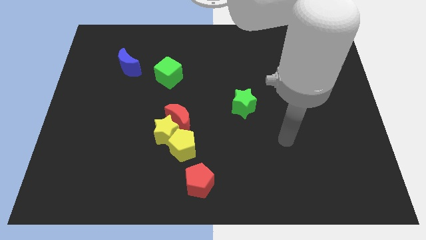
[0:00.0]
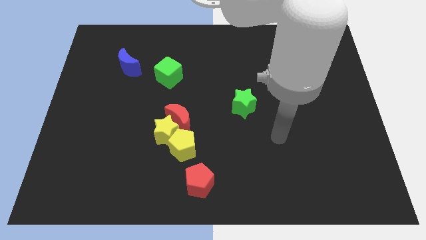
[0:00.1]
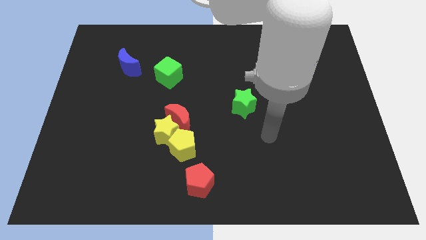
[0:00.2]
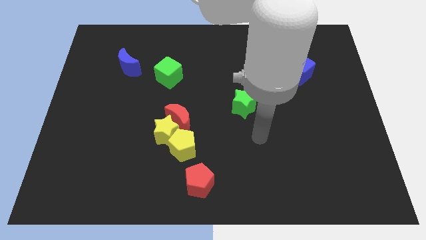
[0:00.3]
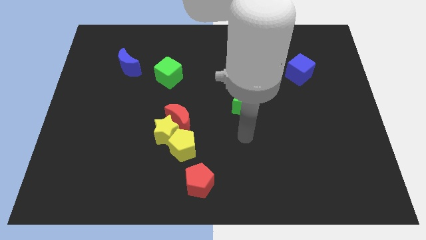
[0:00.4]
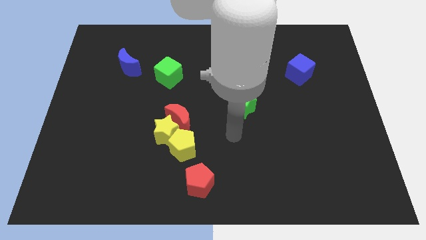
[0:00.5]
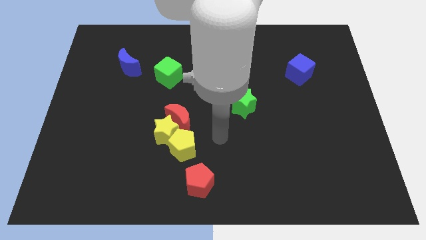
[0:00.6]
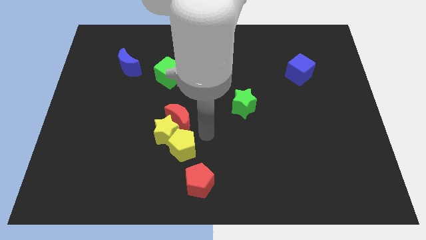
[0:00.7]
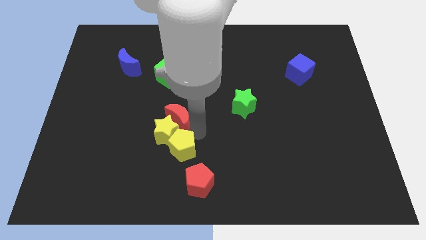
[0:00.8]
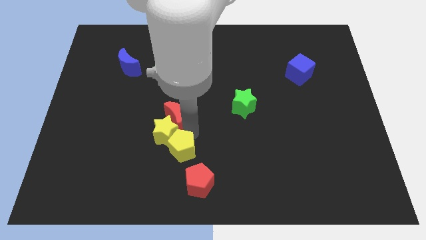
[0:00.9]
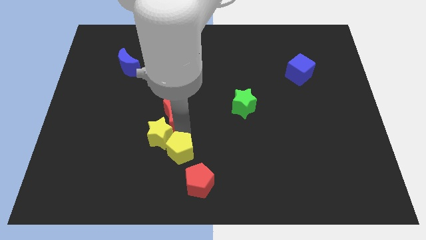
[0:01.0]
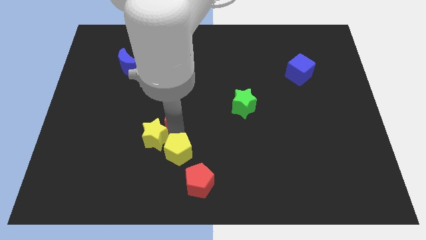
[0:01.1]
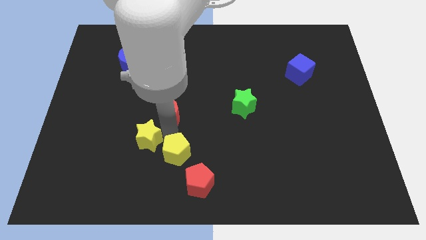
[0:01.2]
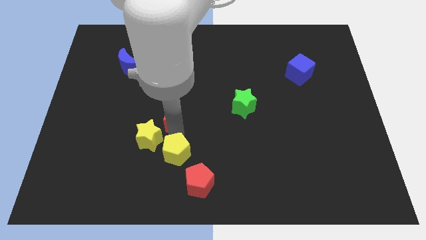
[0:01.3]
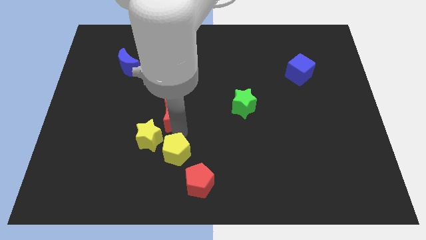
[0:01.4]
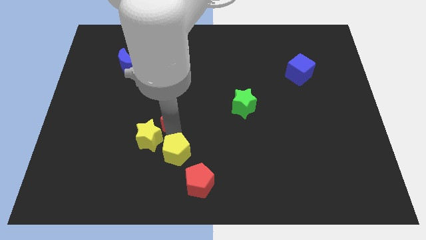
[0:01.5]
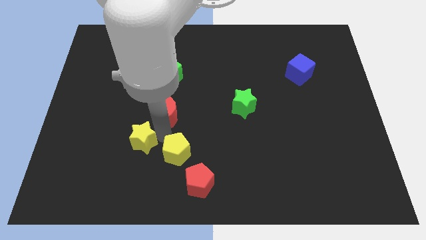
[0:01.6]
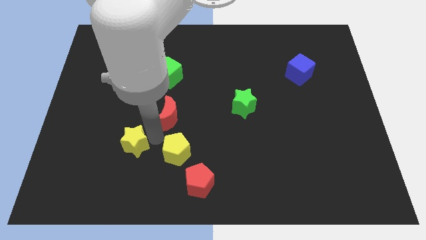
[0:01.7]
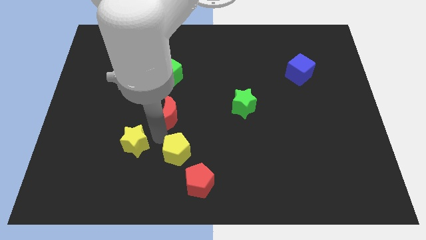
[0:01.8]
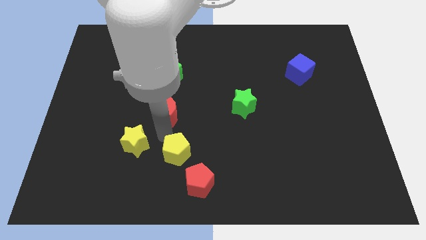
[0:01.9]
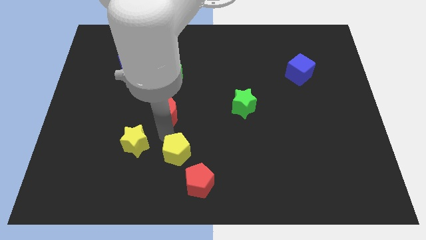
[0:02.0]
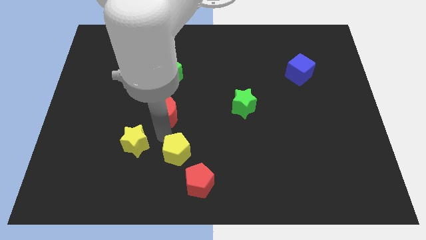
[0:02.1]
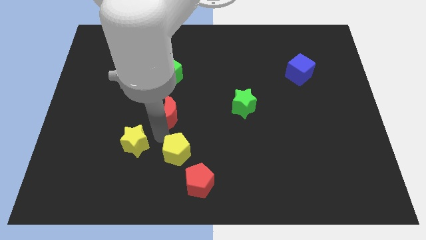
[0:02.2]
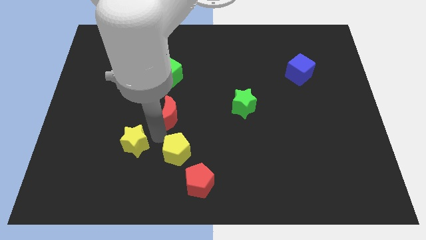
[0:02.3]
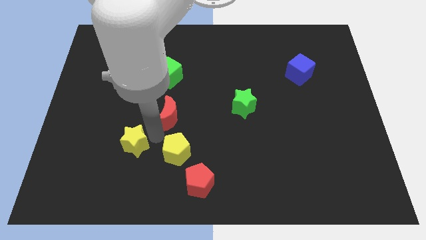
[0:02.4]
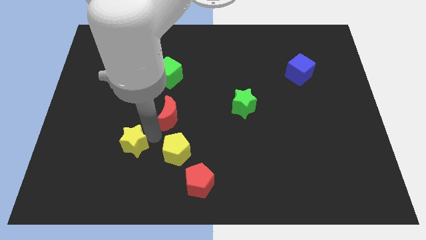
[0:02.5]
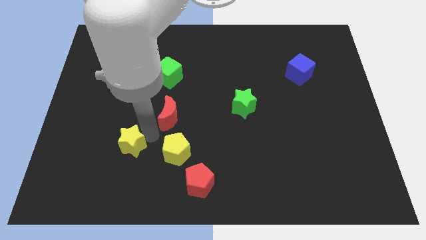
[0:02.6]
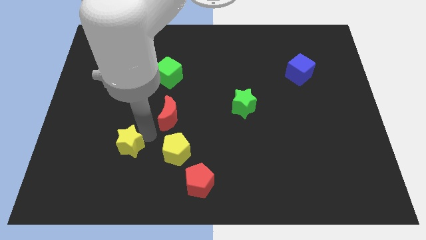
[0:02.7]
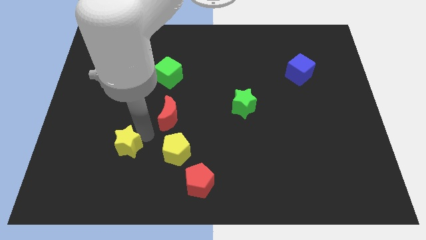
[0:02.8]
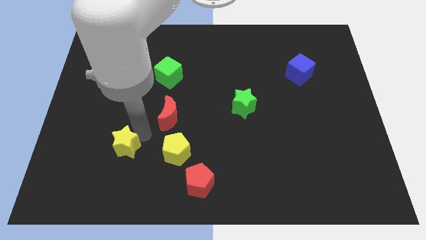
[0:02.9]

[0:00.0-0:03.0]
pull the yellow star apart from the red moon and yellow pentagon

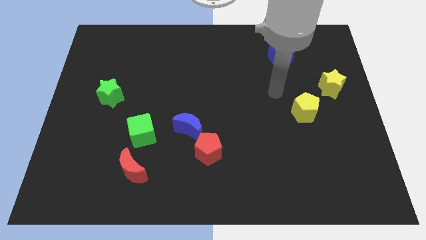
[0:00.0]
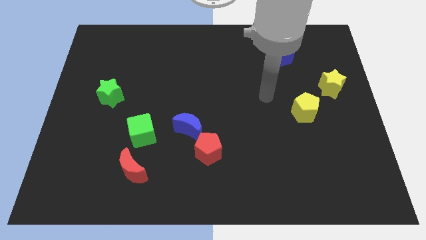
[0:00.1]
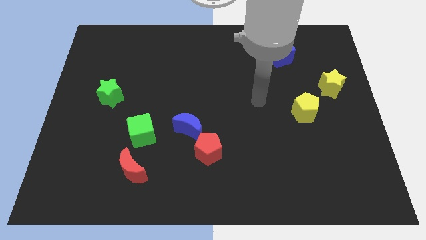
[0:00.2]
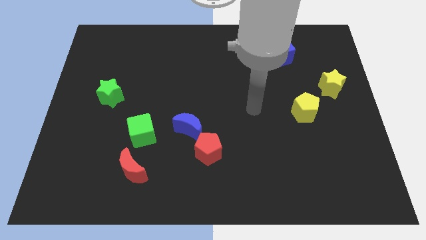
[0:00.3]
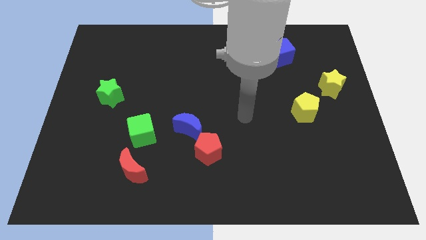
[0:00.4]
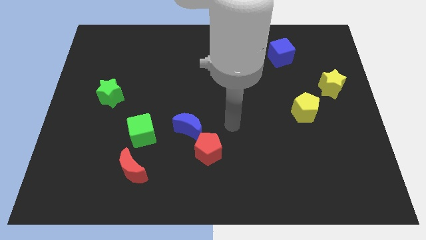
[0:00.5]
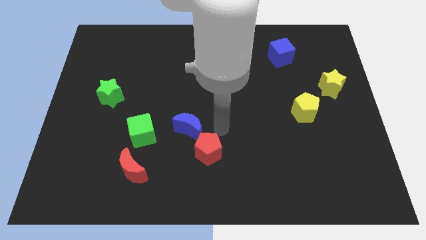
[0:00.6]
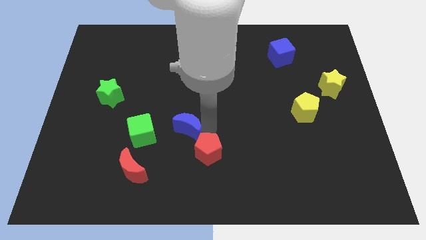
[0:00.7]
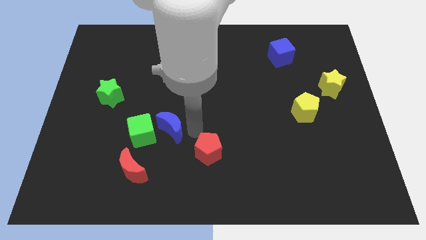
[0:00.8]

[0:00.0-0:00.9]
pull the red pentagon apart from the blue moon

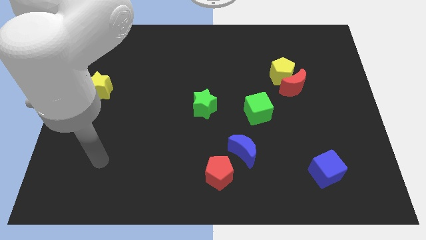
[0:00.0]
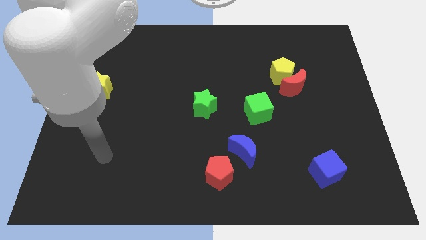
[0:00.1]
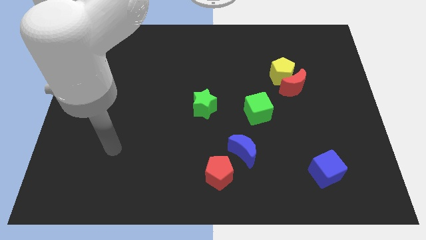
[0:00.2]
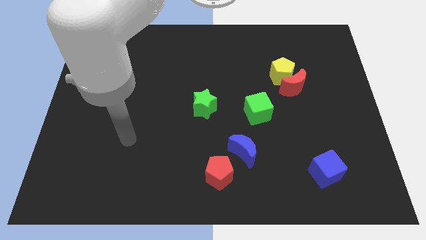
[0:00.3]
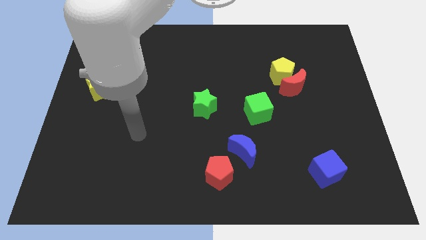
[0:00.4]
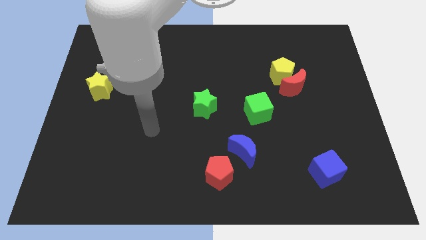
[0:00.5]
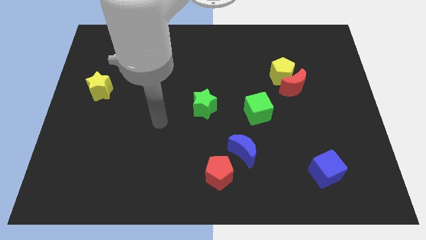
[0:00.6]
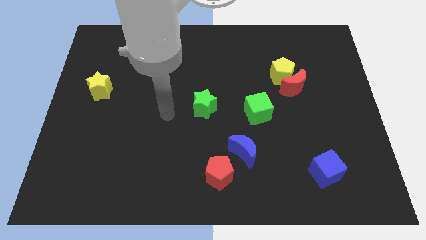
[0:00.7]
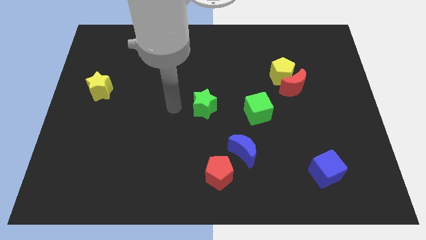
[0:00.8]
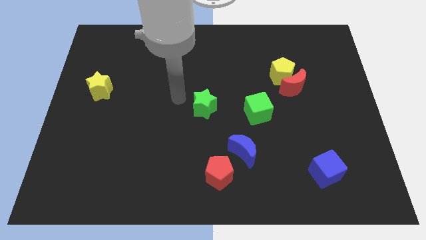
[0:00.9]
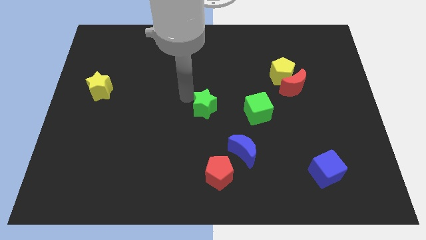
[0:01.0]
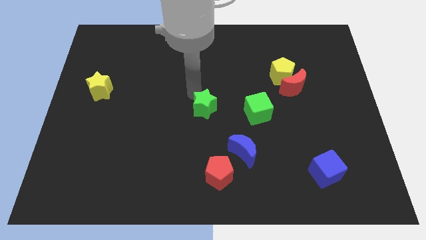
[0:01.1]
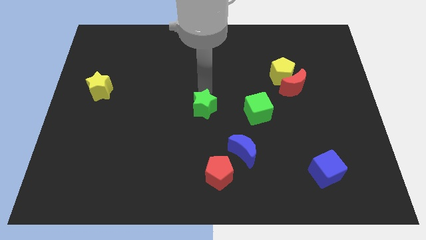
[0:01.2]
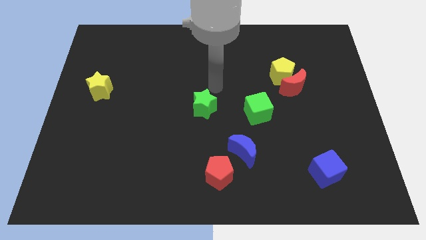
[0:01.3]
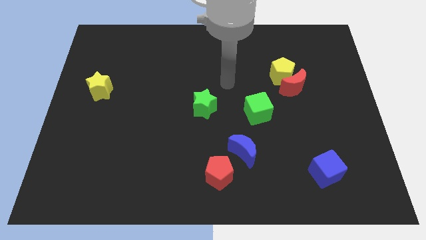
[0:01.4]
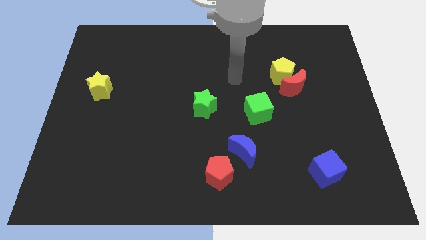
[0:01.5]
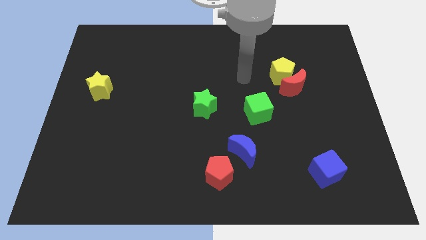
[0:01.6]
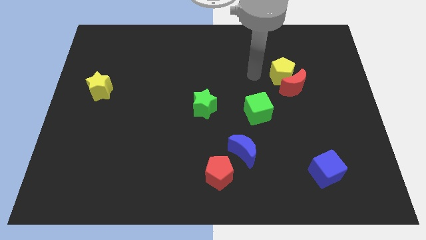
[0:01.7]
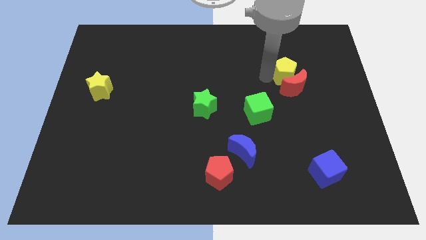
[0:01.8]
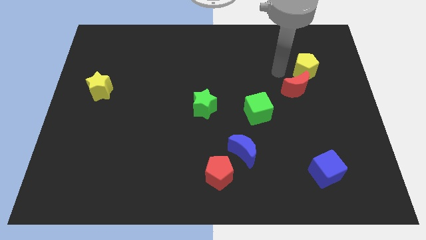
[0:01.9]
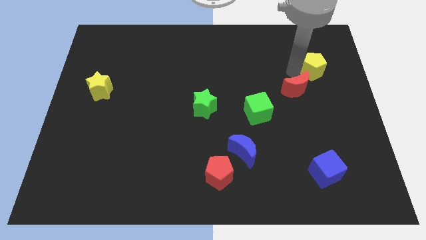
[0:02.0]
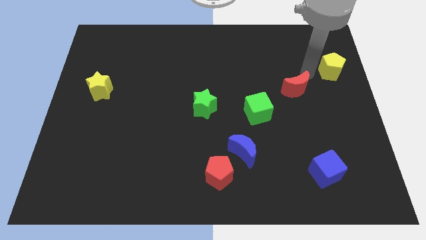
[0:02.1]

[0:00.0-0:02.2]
separate the red moon from the yellow pentagon

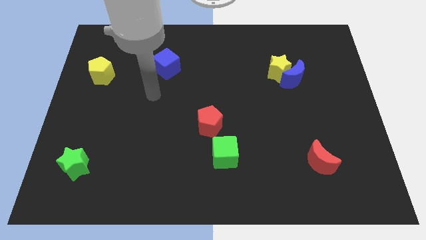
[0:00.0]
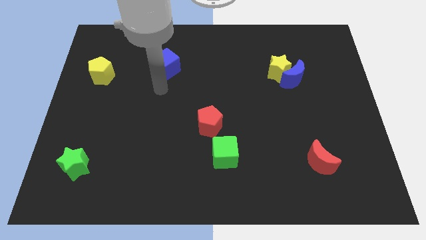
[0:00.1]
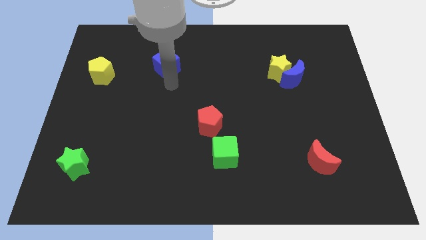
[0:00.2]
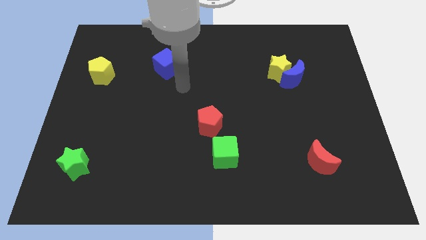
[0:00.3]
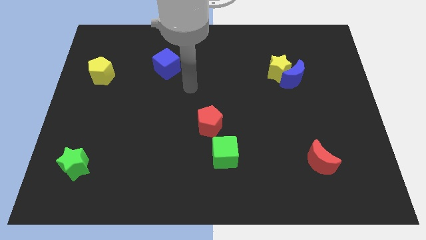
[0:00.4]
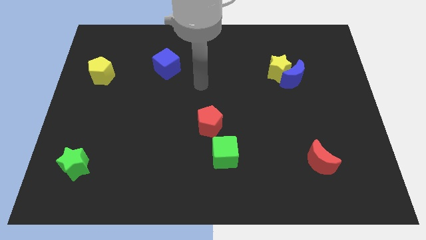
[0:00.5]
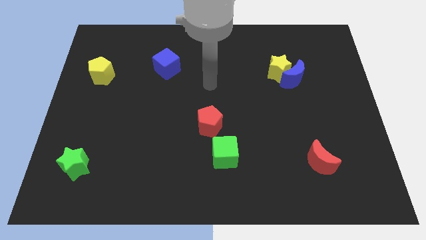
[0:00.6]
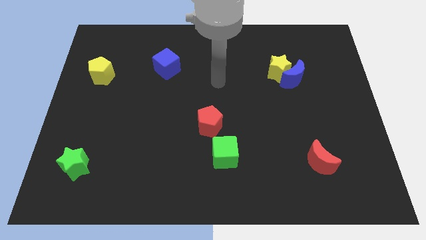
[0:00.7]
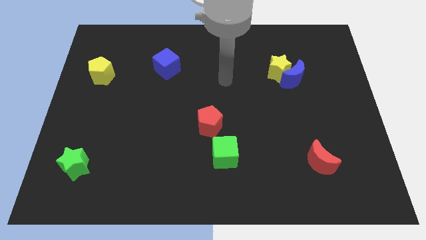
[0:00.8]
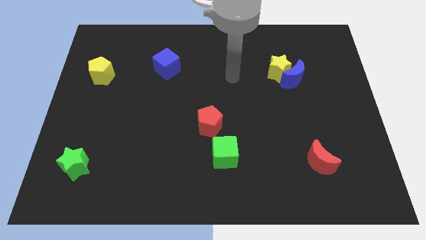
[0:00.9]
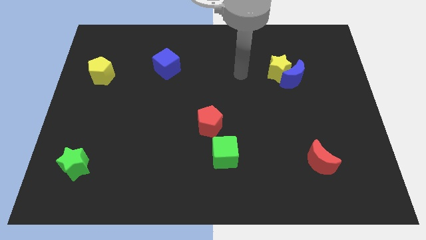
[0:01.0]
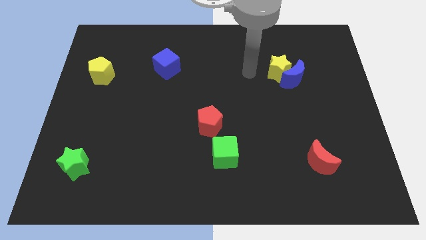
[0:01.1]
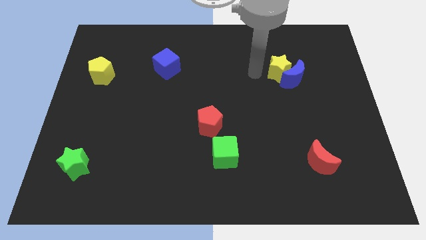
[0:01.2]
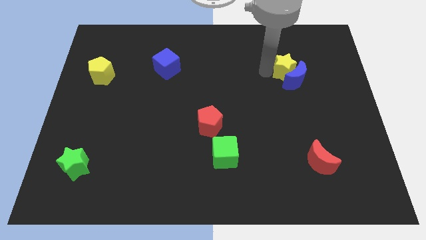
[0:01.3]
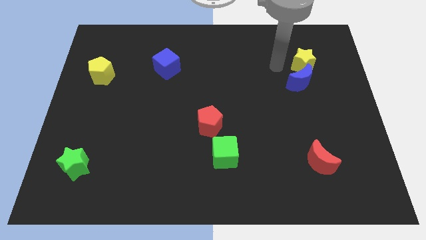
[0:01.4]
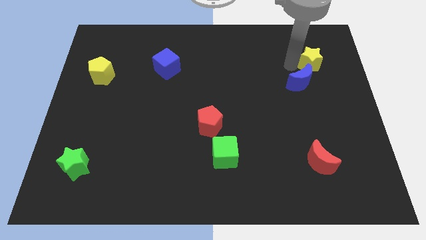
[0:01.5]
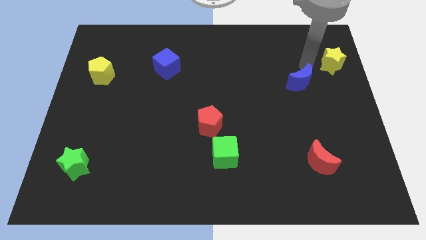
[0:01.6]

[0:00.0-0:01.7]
pull the blue moon apart from the yellow star

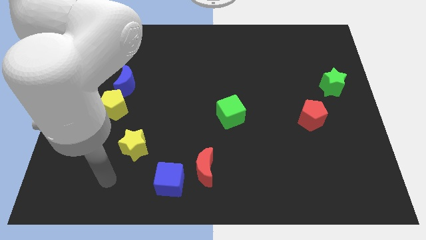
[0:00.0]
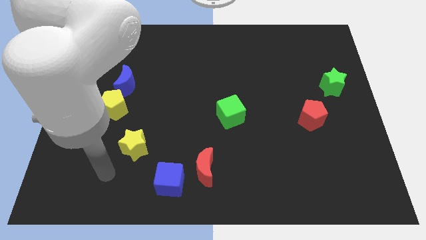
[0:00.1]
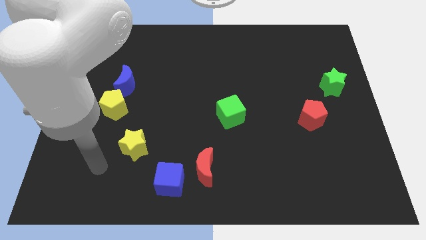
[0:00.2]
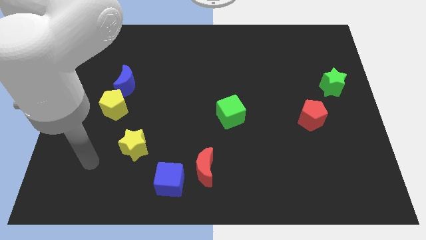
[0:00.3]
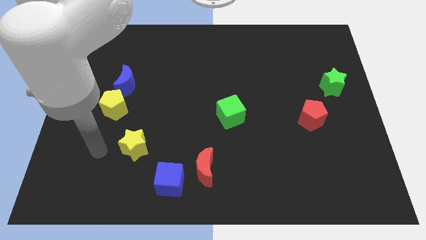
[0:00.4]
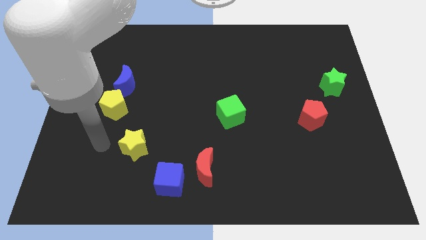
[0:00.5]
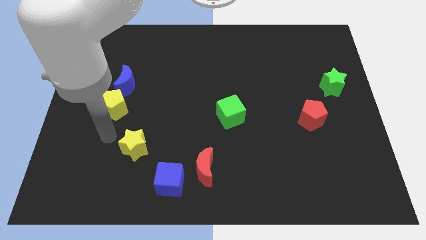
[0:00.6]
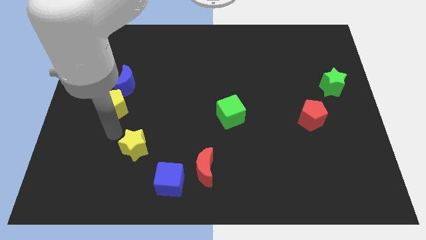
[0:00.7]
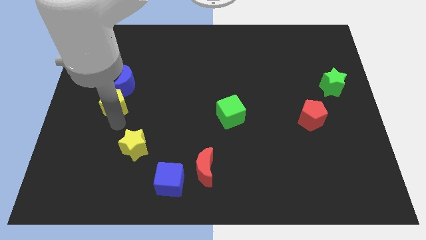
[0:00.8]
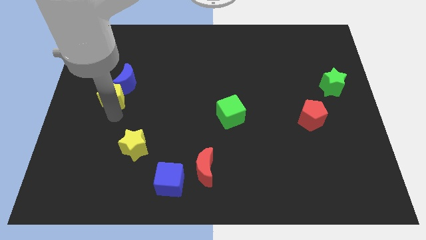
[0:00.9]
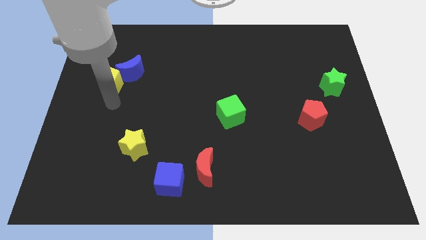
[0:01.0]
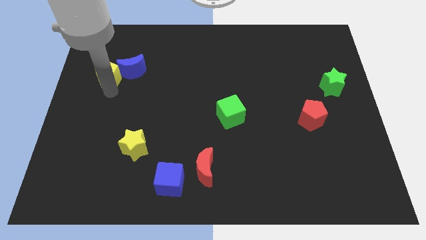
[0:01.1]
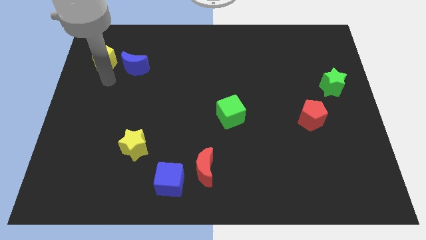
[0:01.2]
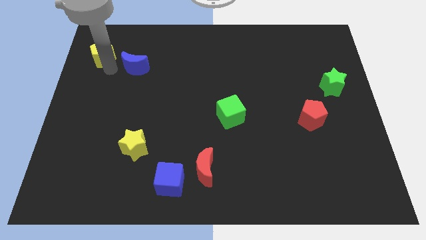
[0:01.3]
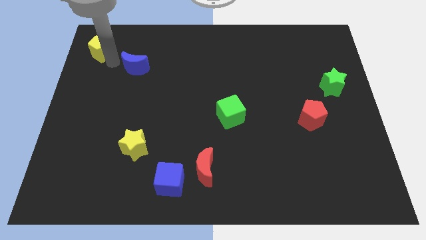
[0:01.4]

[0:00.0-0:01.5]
move the blue moon away from the yellow pentagon
